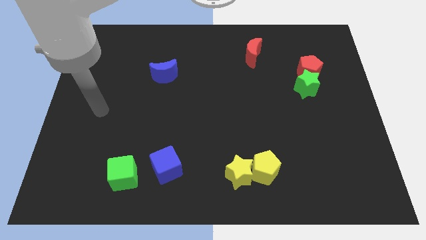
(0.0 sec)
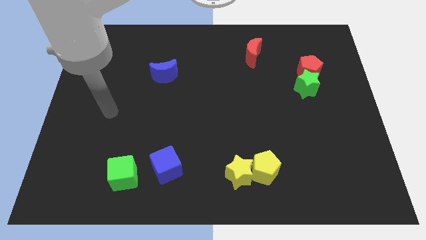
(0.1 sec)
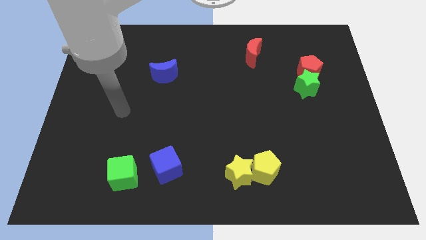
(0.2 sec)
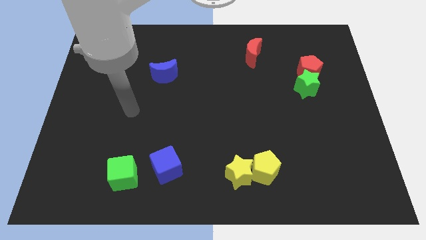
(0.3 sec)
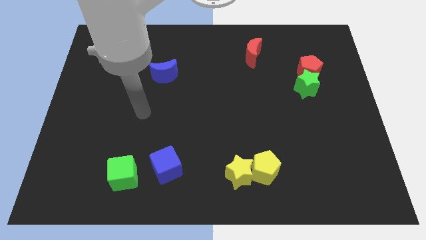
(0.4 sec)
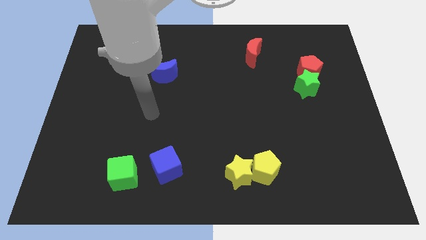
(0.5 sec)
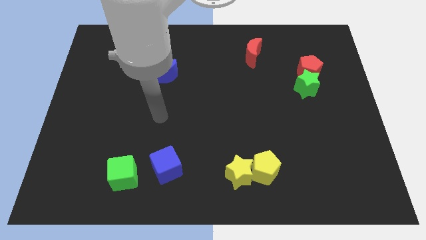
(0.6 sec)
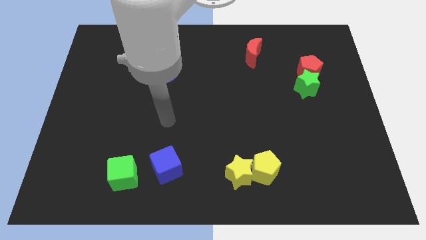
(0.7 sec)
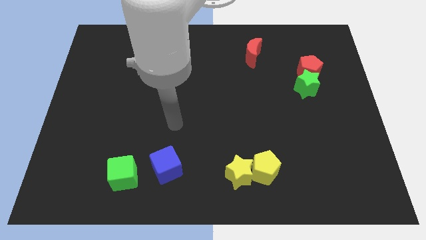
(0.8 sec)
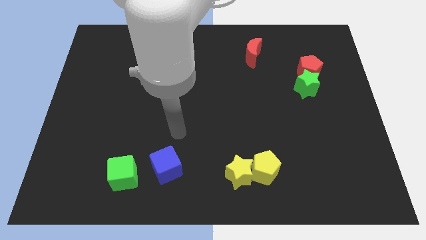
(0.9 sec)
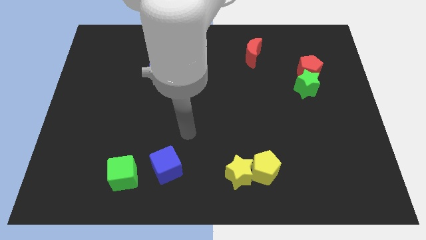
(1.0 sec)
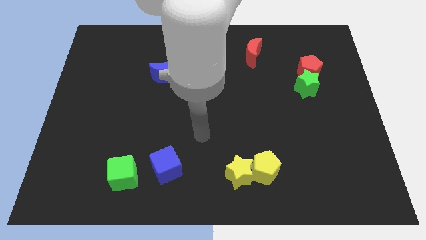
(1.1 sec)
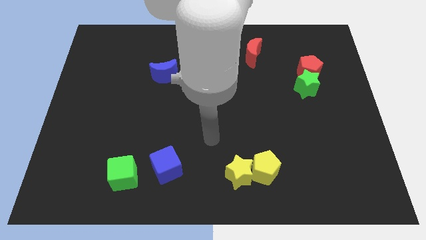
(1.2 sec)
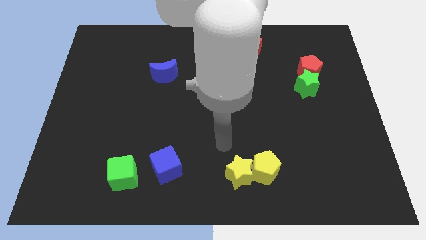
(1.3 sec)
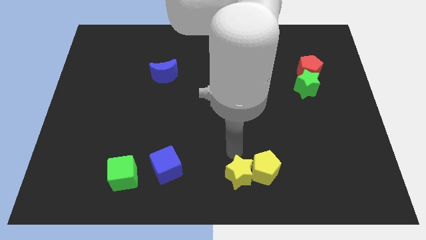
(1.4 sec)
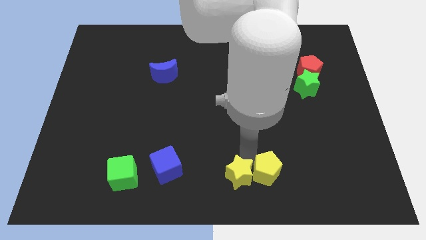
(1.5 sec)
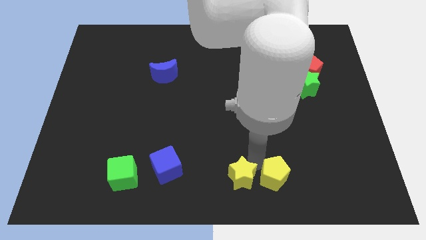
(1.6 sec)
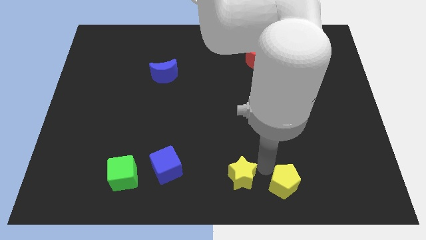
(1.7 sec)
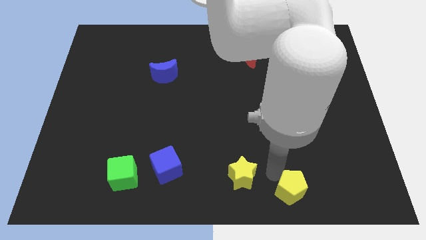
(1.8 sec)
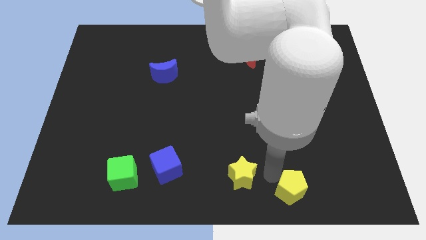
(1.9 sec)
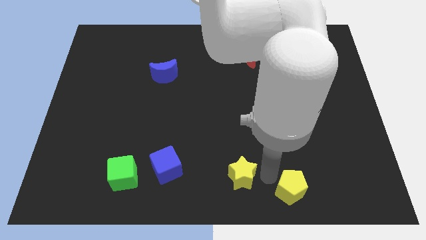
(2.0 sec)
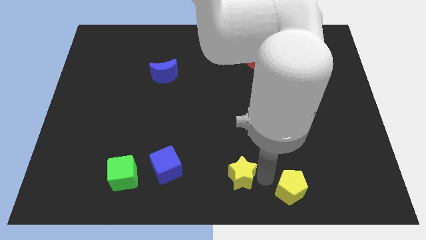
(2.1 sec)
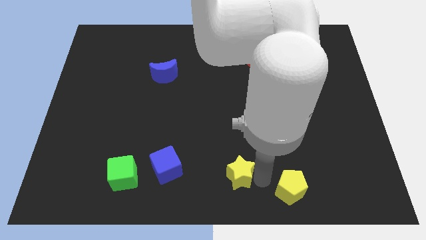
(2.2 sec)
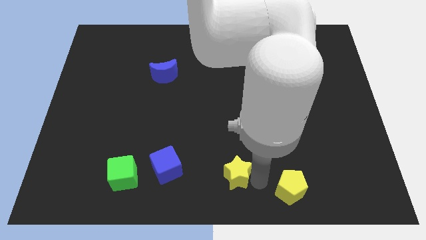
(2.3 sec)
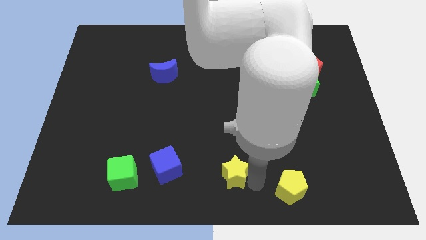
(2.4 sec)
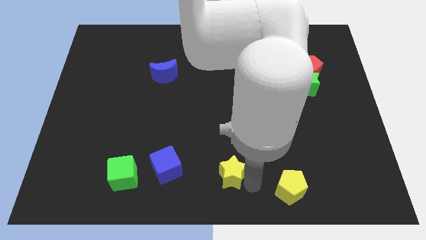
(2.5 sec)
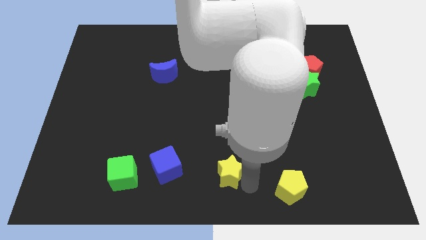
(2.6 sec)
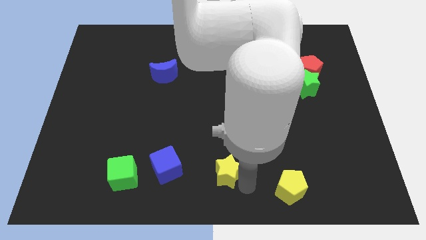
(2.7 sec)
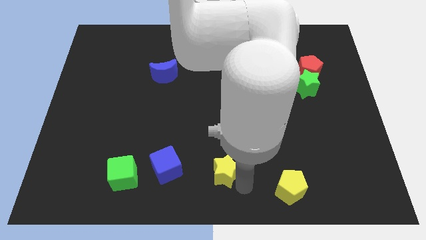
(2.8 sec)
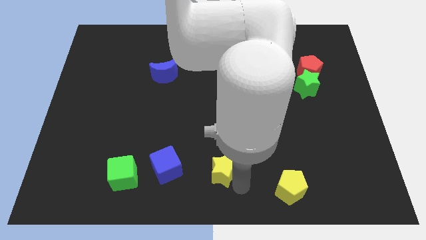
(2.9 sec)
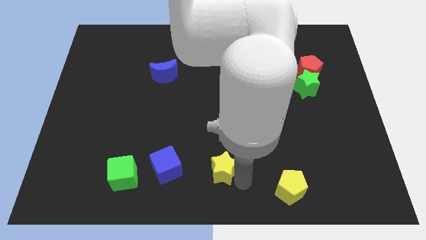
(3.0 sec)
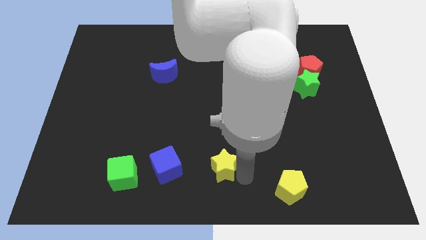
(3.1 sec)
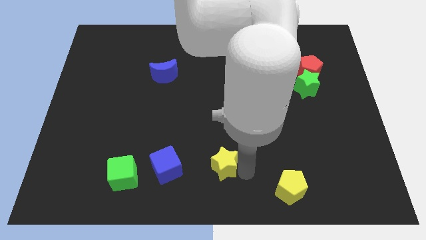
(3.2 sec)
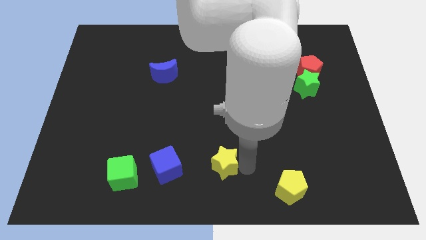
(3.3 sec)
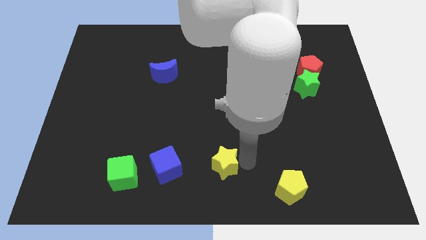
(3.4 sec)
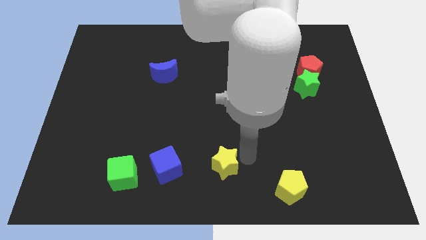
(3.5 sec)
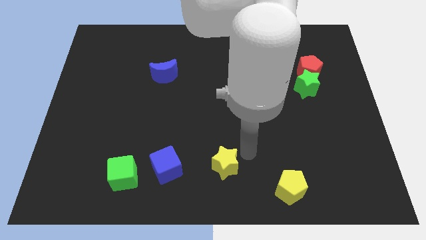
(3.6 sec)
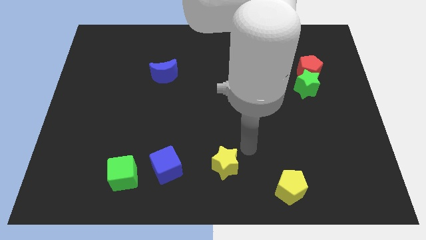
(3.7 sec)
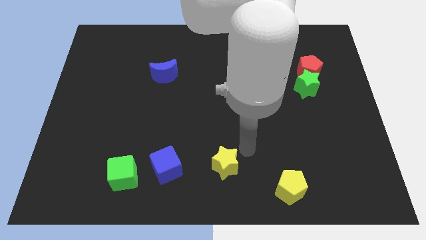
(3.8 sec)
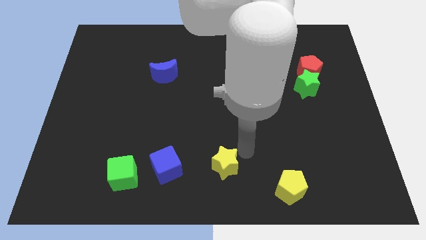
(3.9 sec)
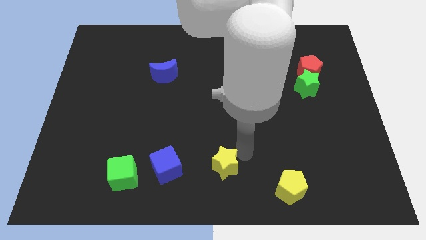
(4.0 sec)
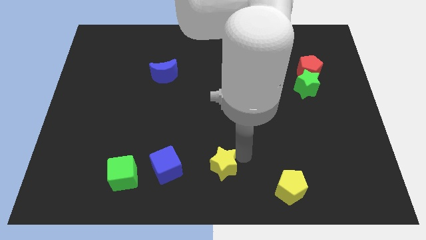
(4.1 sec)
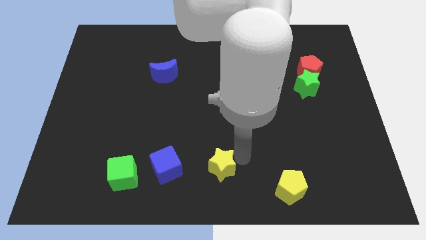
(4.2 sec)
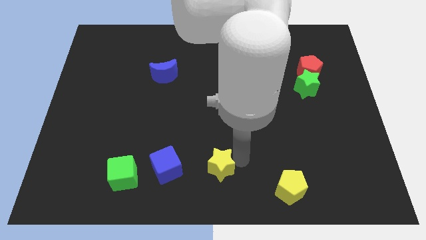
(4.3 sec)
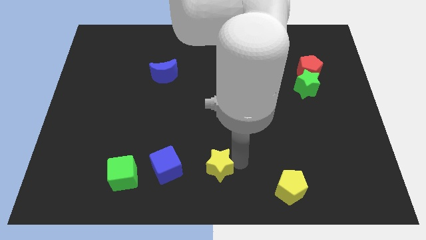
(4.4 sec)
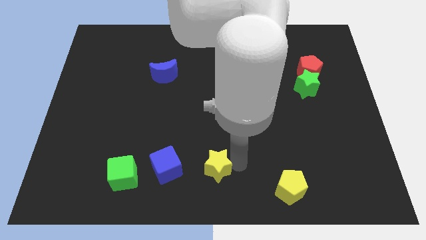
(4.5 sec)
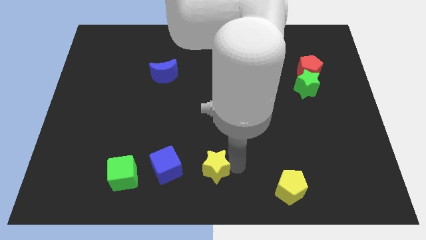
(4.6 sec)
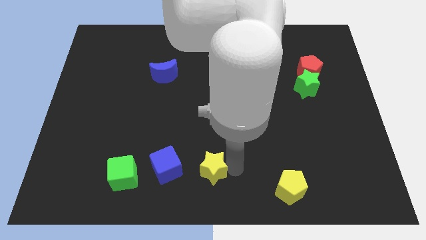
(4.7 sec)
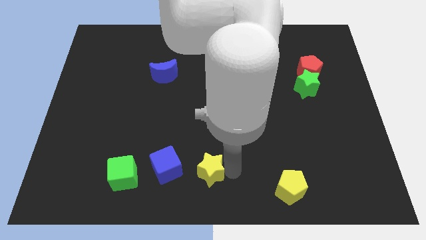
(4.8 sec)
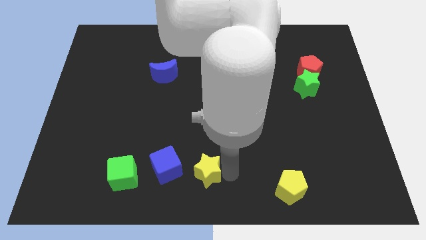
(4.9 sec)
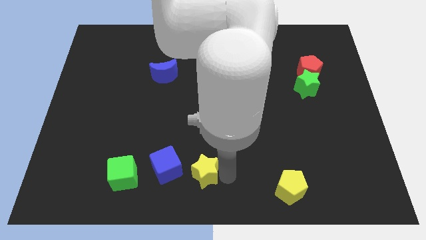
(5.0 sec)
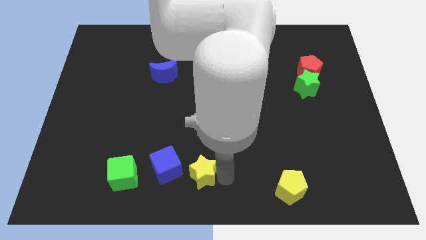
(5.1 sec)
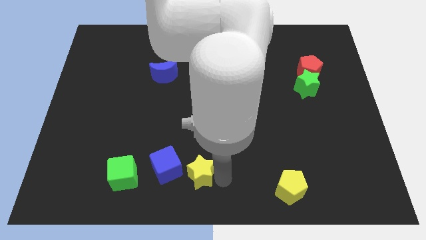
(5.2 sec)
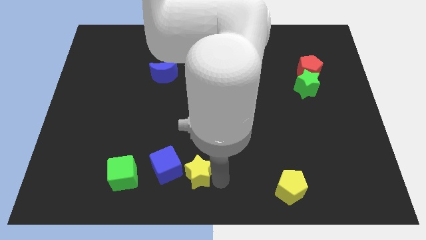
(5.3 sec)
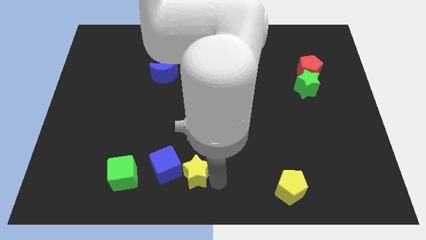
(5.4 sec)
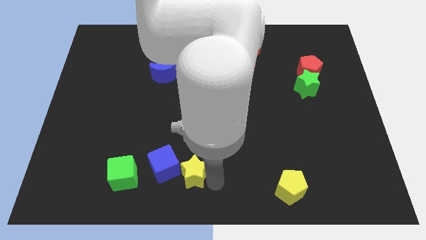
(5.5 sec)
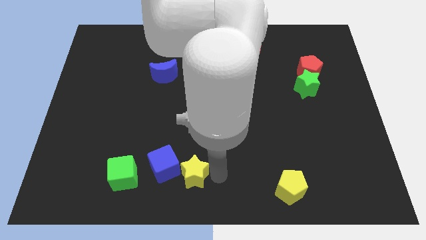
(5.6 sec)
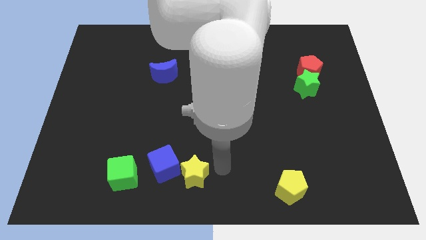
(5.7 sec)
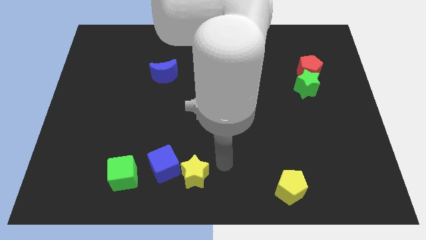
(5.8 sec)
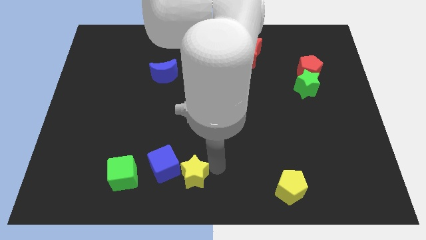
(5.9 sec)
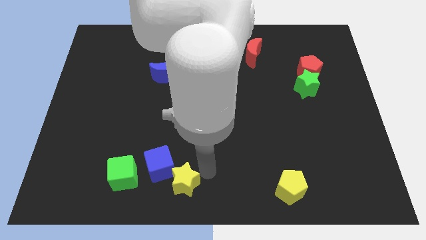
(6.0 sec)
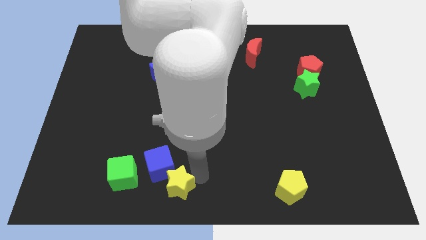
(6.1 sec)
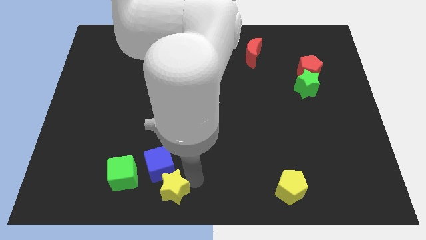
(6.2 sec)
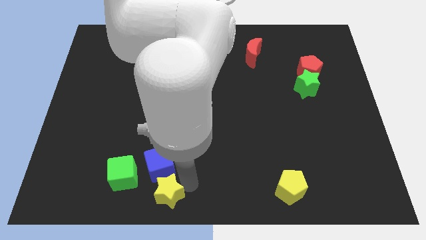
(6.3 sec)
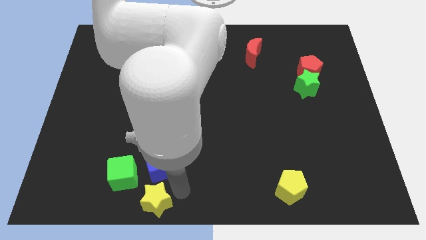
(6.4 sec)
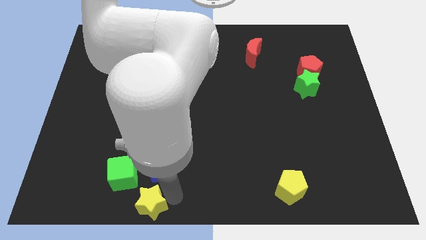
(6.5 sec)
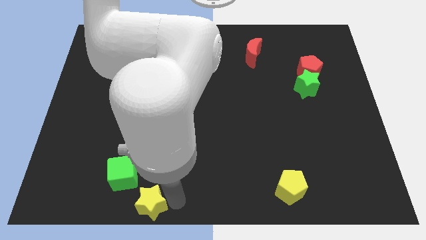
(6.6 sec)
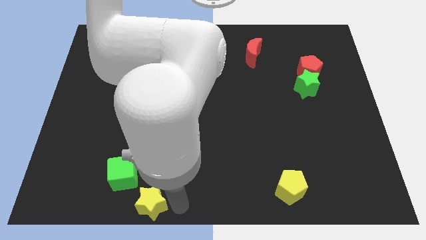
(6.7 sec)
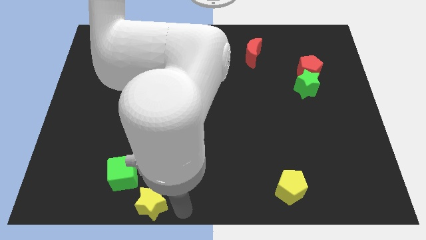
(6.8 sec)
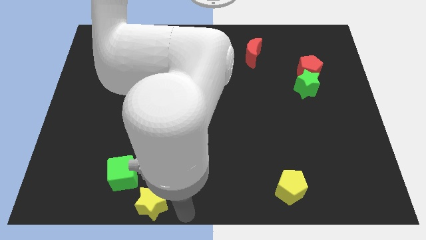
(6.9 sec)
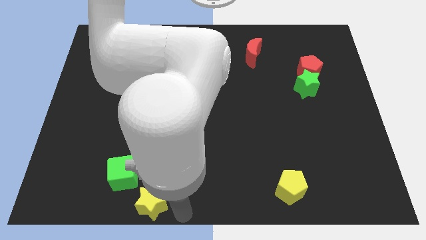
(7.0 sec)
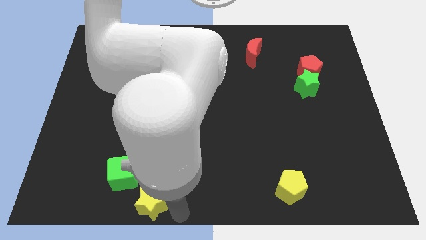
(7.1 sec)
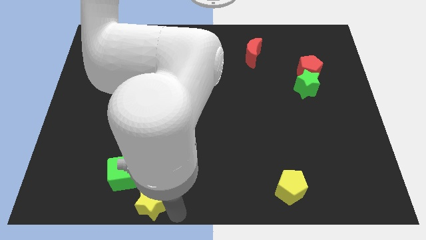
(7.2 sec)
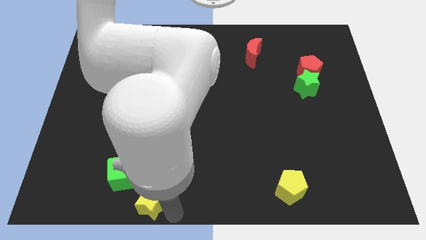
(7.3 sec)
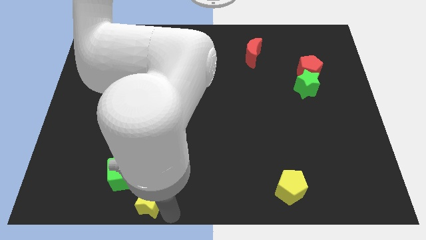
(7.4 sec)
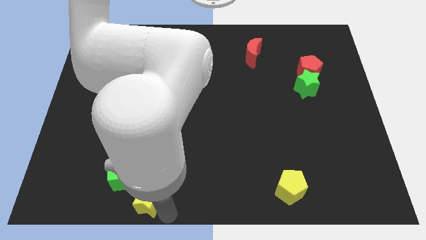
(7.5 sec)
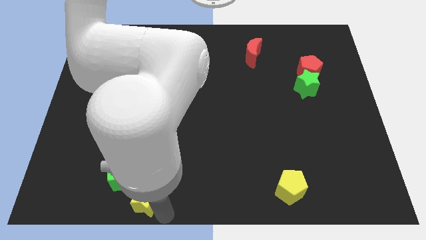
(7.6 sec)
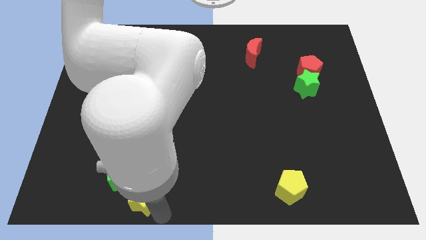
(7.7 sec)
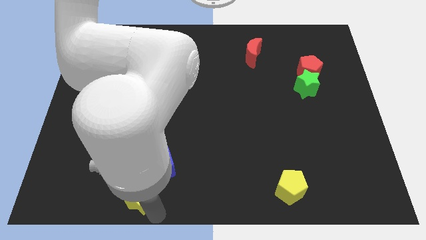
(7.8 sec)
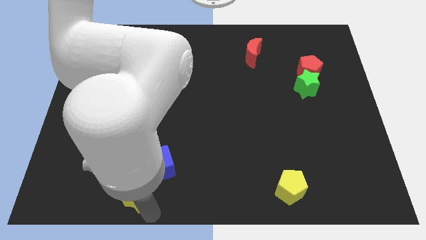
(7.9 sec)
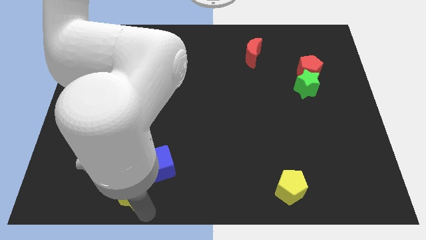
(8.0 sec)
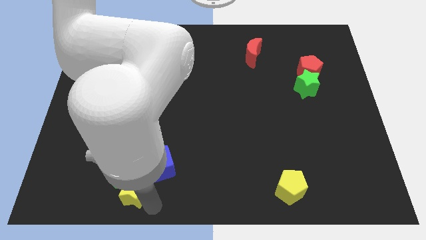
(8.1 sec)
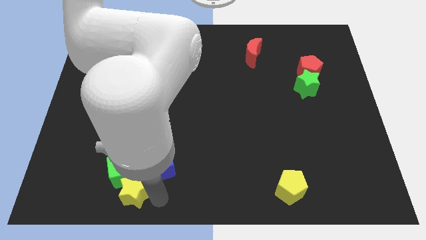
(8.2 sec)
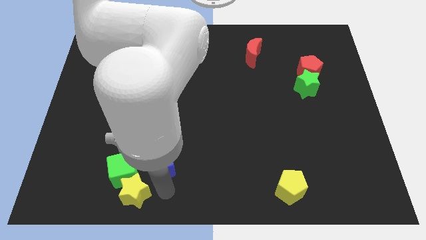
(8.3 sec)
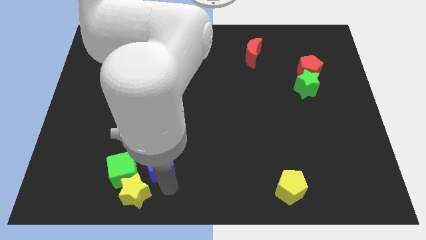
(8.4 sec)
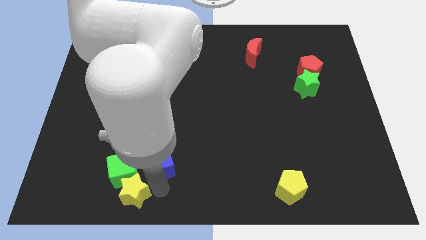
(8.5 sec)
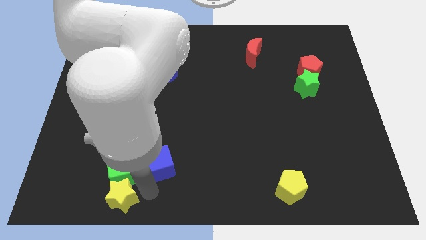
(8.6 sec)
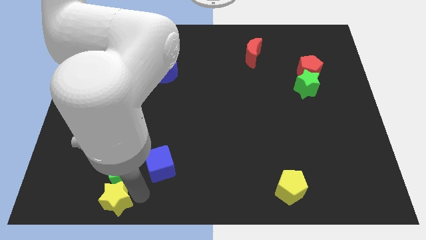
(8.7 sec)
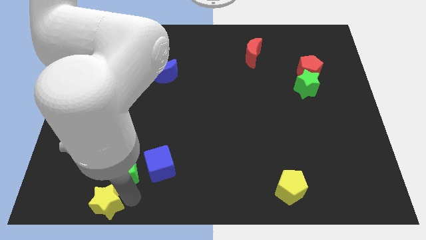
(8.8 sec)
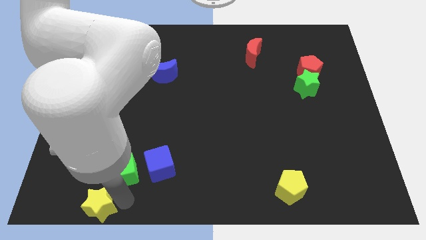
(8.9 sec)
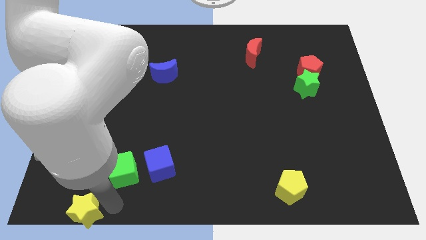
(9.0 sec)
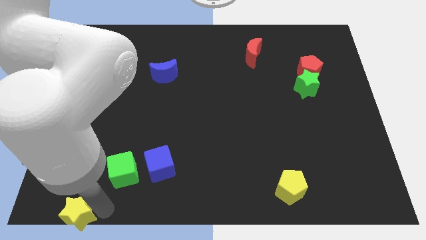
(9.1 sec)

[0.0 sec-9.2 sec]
put the yellow star to the bottom left
